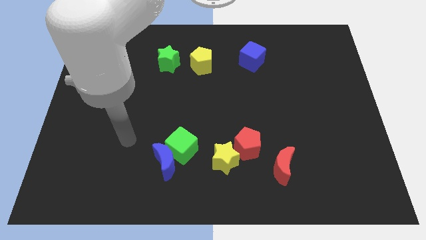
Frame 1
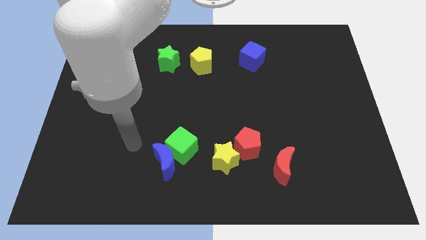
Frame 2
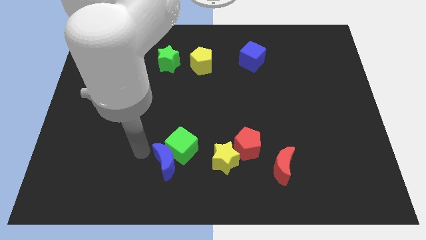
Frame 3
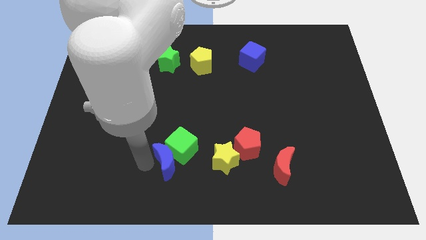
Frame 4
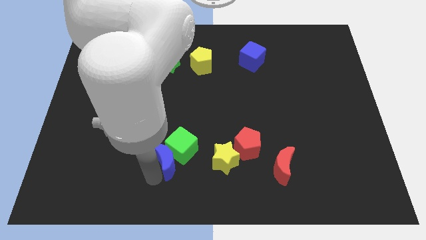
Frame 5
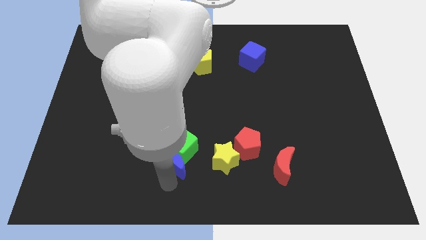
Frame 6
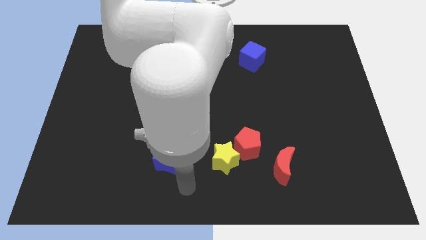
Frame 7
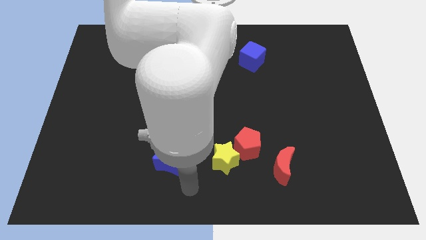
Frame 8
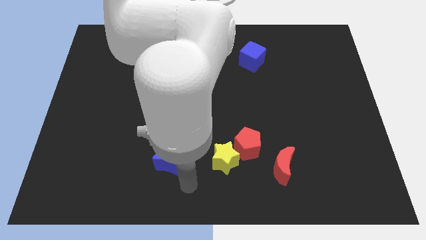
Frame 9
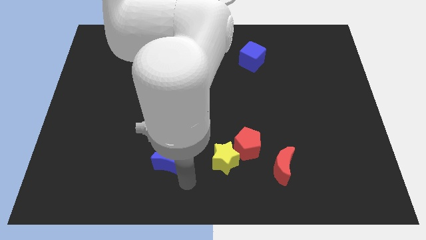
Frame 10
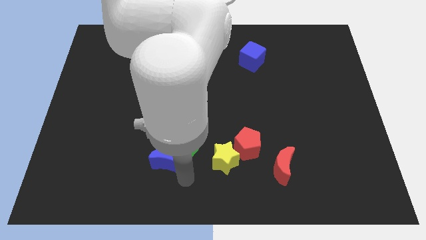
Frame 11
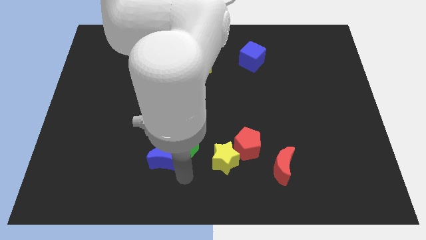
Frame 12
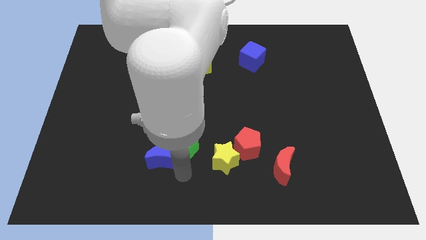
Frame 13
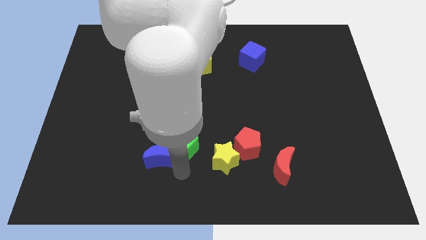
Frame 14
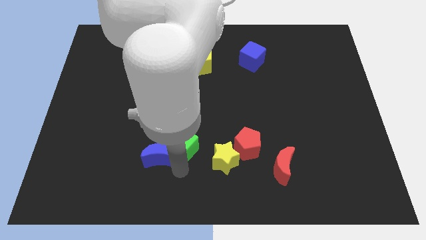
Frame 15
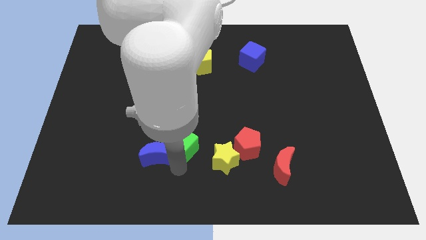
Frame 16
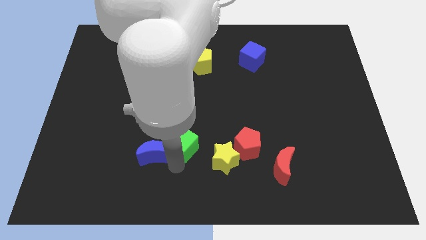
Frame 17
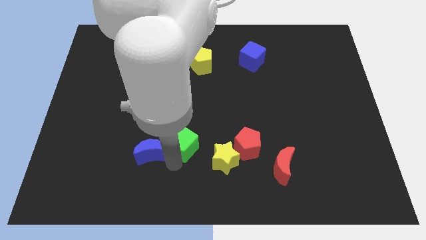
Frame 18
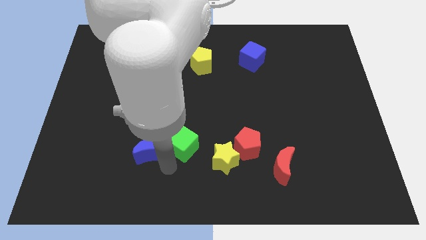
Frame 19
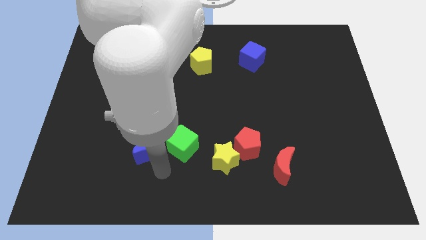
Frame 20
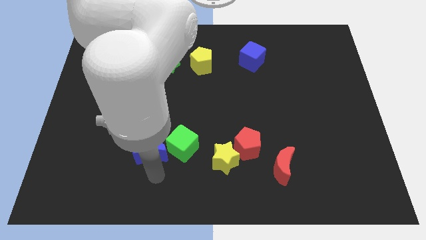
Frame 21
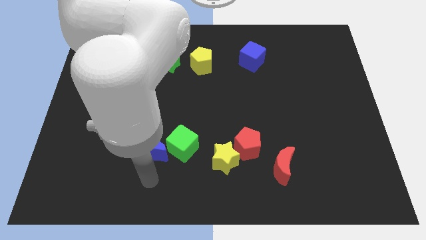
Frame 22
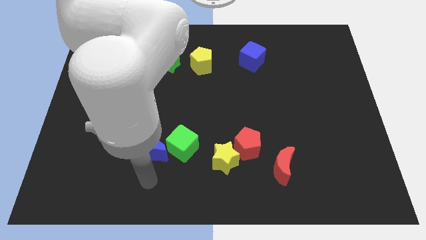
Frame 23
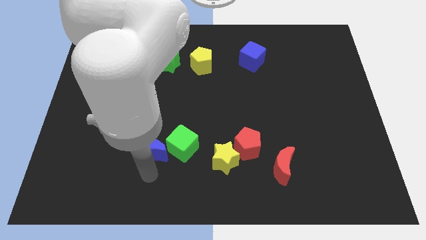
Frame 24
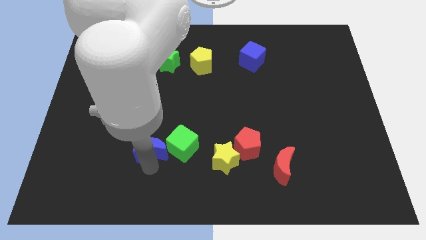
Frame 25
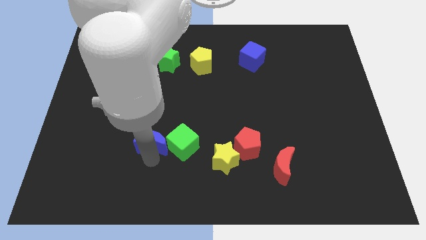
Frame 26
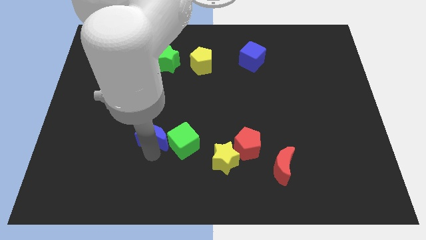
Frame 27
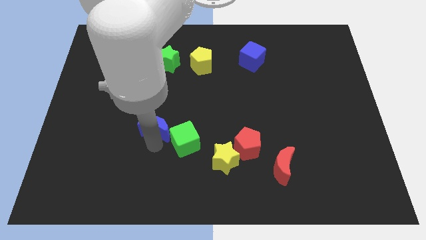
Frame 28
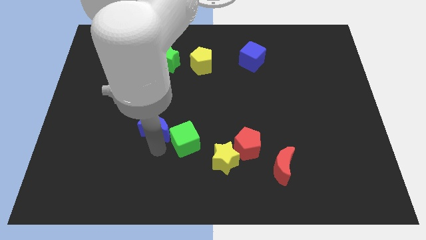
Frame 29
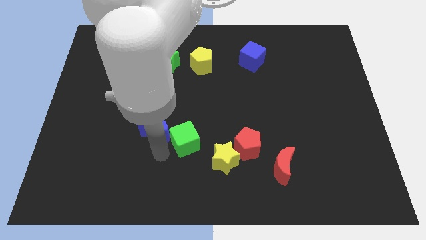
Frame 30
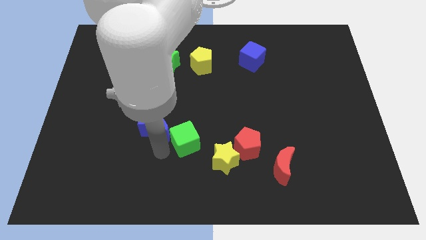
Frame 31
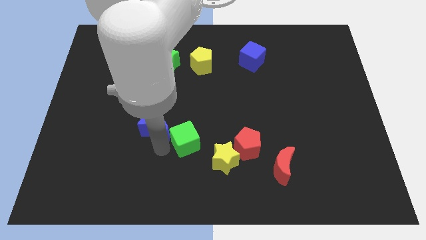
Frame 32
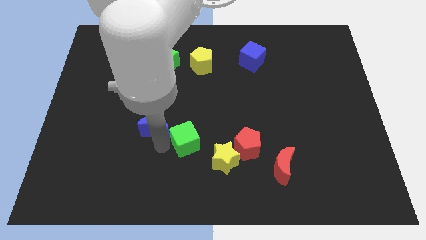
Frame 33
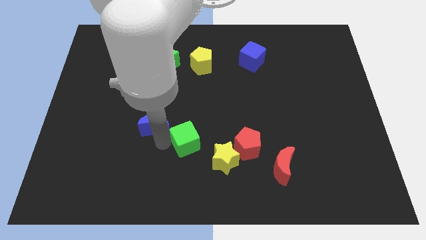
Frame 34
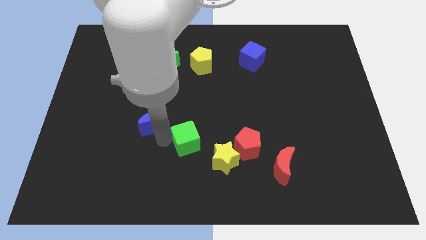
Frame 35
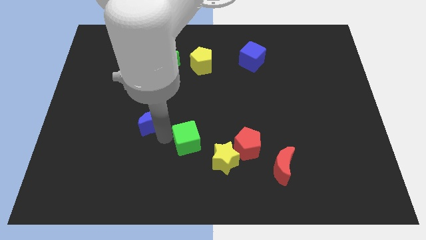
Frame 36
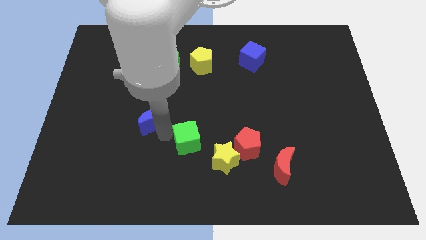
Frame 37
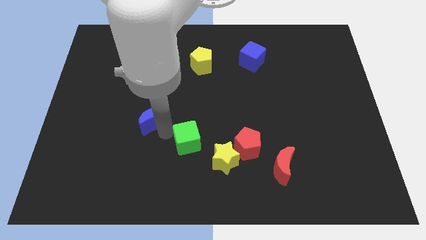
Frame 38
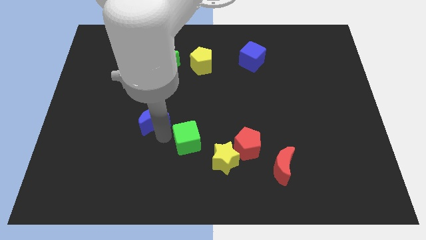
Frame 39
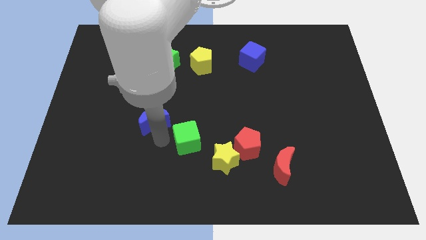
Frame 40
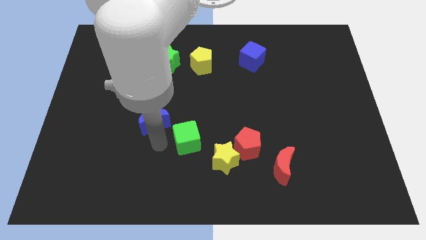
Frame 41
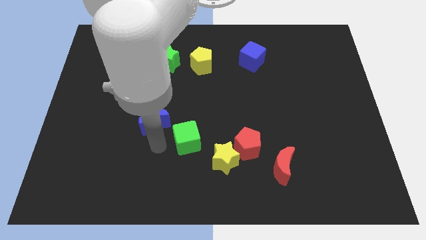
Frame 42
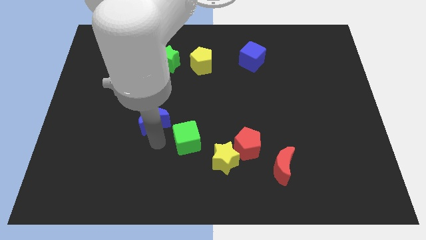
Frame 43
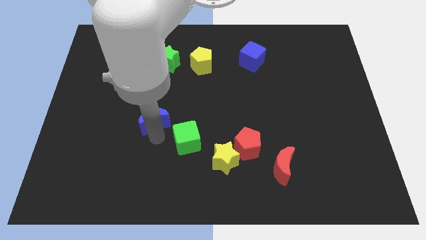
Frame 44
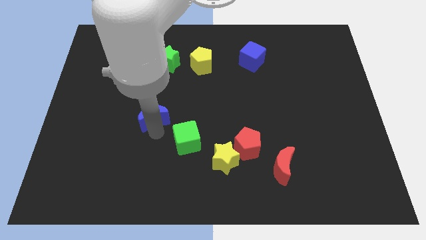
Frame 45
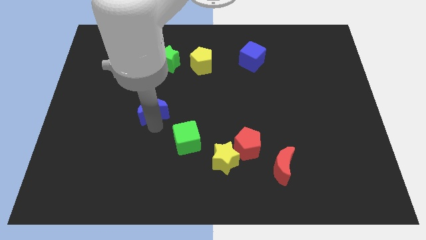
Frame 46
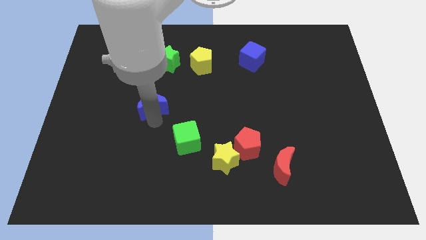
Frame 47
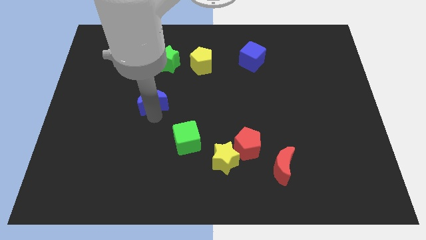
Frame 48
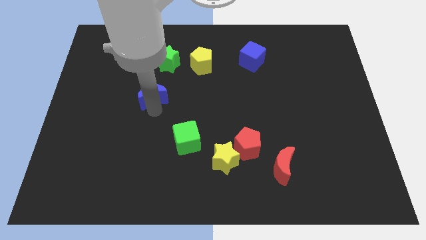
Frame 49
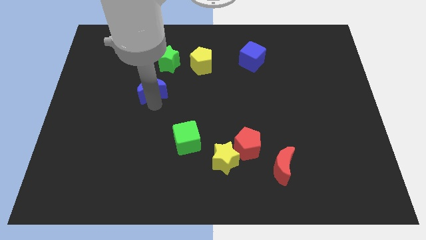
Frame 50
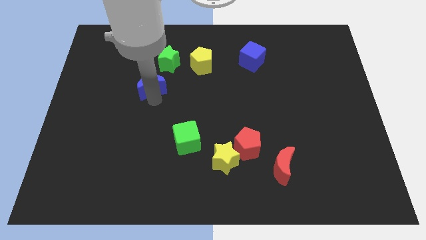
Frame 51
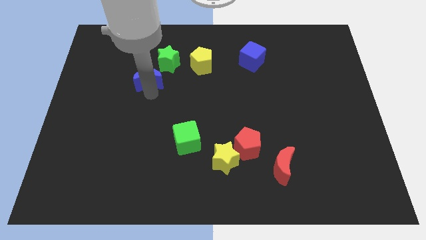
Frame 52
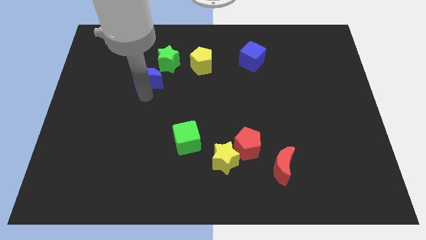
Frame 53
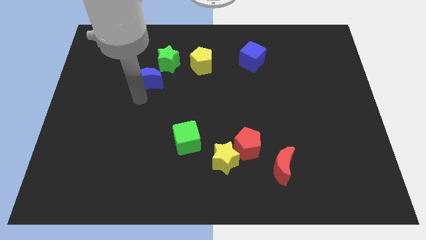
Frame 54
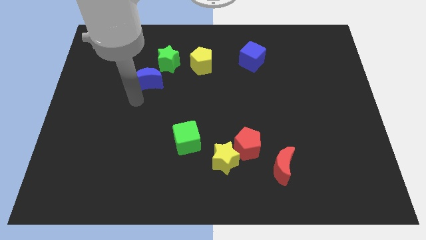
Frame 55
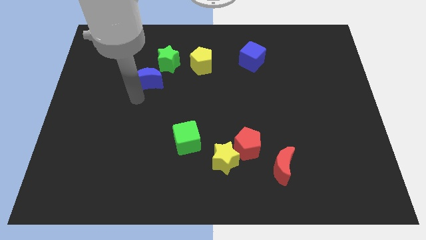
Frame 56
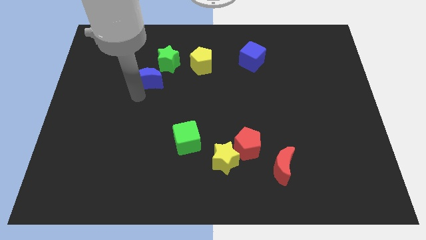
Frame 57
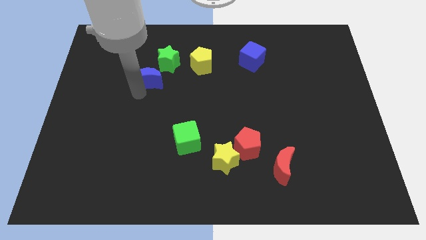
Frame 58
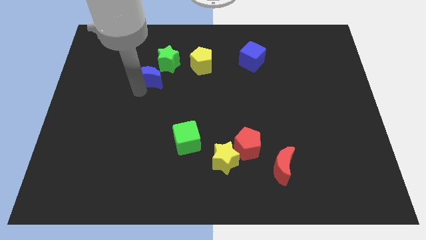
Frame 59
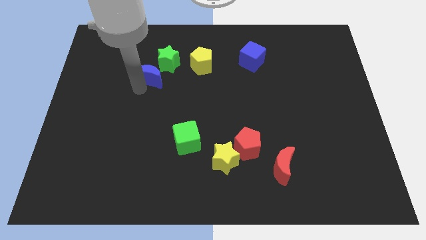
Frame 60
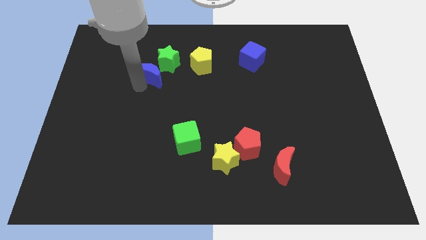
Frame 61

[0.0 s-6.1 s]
move the blue moon to the left of the yellow pentagon

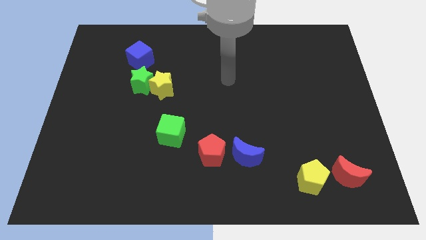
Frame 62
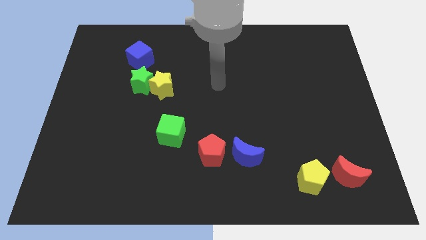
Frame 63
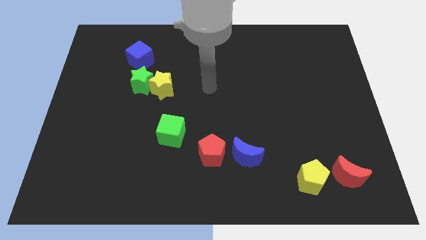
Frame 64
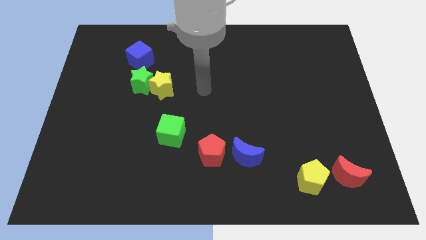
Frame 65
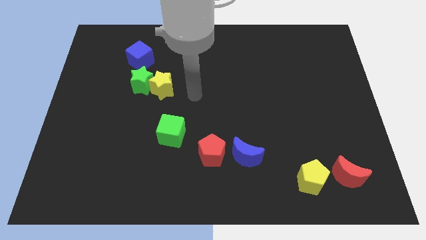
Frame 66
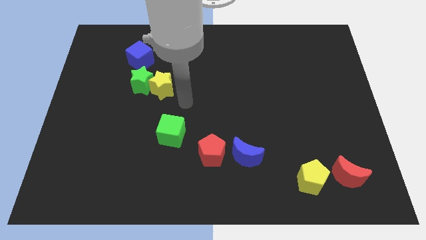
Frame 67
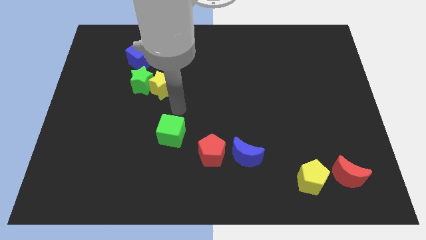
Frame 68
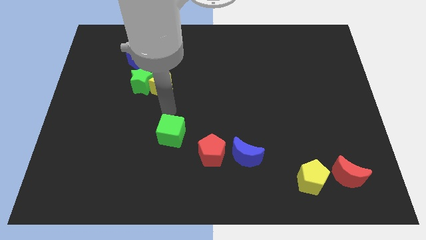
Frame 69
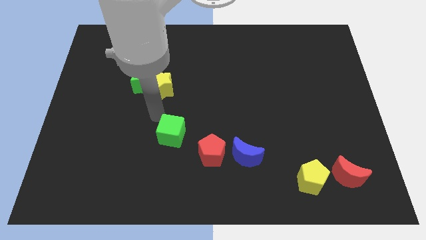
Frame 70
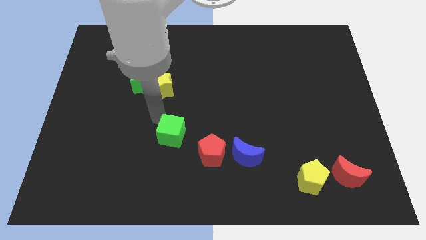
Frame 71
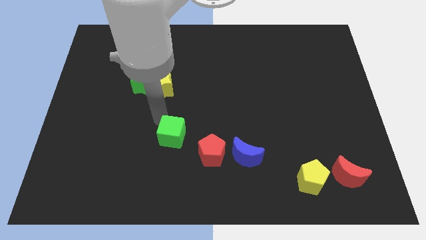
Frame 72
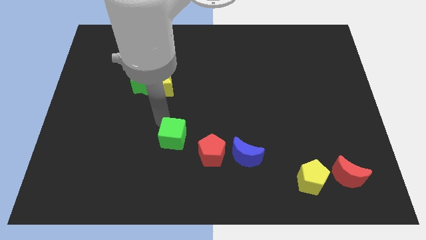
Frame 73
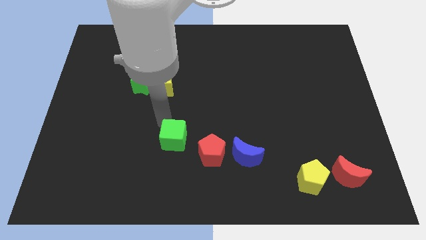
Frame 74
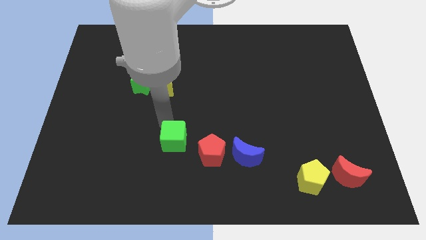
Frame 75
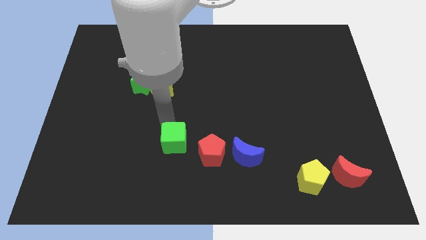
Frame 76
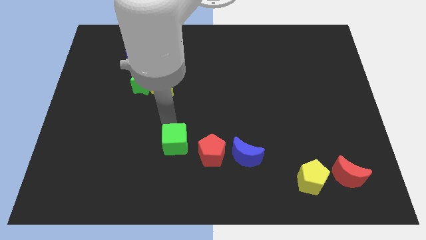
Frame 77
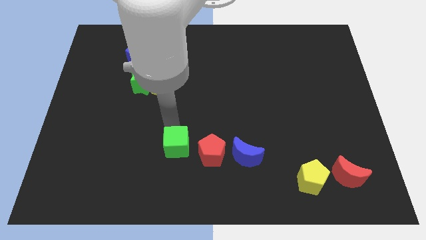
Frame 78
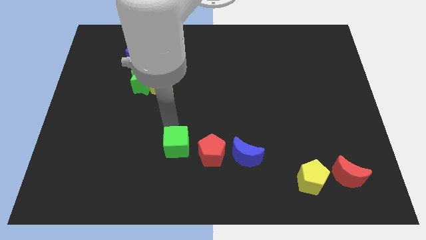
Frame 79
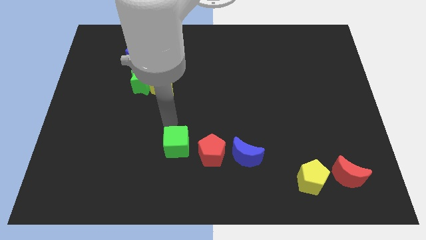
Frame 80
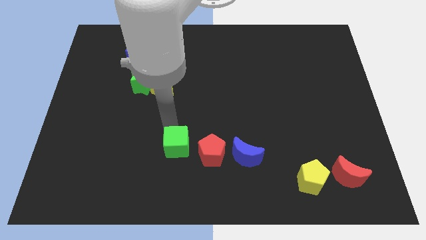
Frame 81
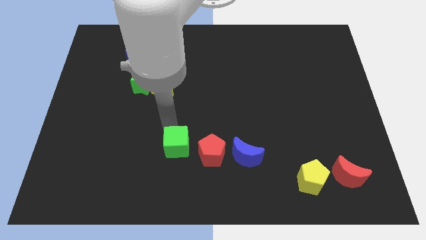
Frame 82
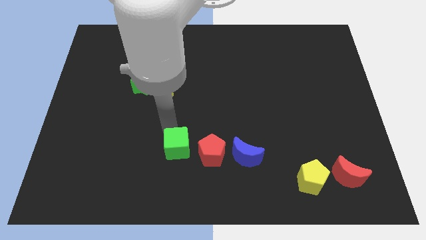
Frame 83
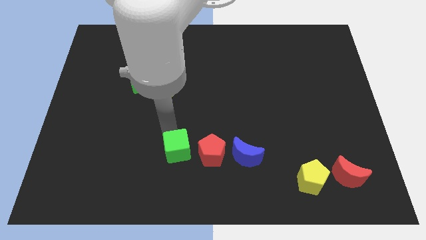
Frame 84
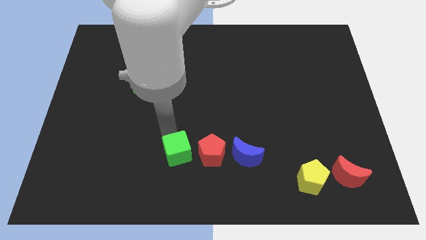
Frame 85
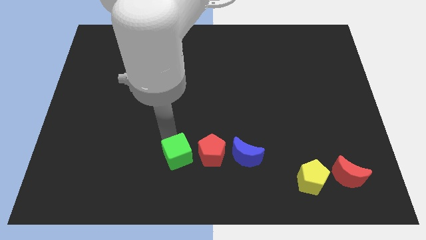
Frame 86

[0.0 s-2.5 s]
slide the green cube to the bottom left of the red pentagon
